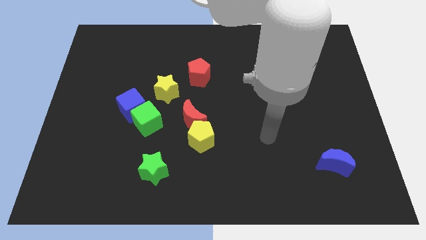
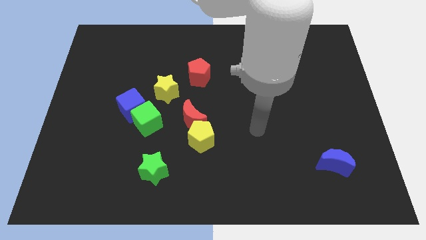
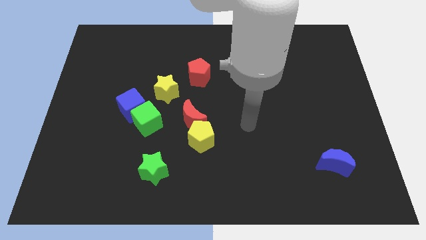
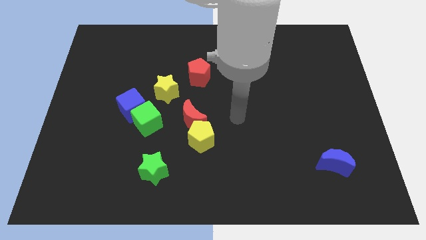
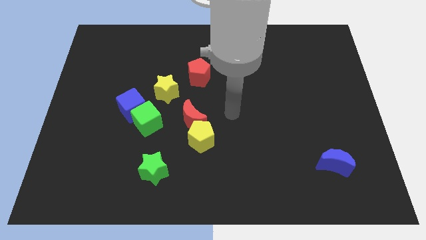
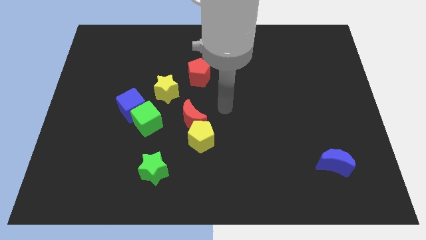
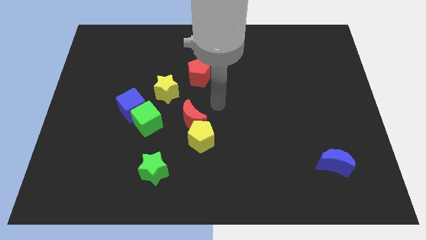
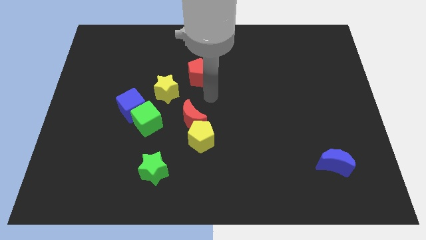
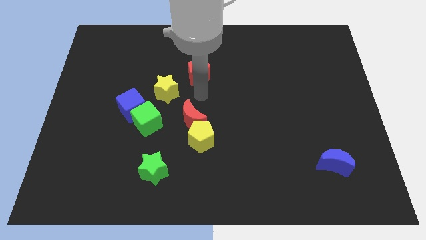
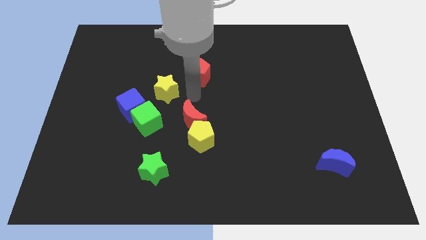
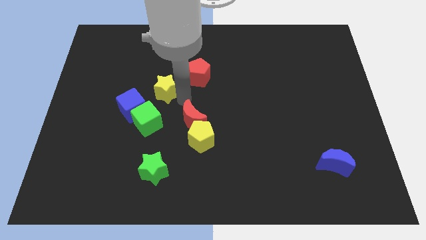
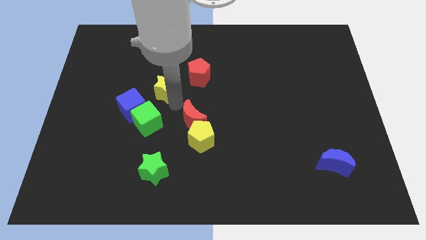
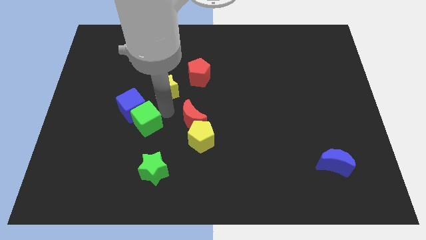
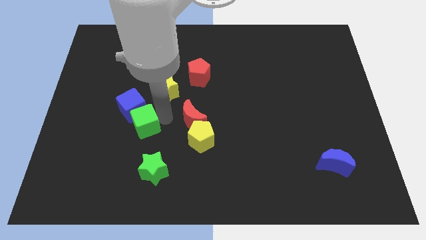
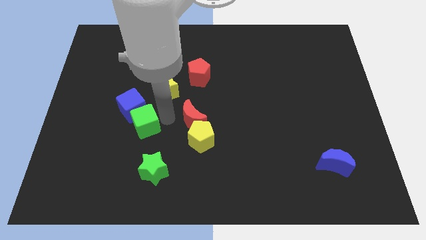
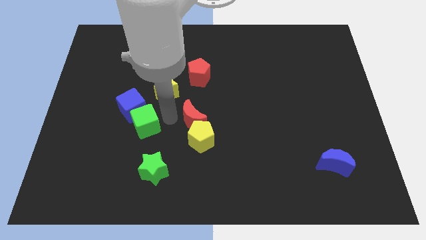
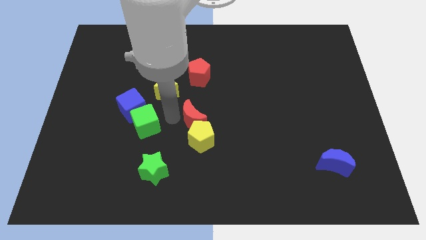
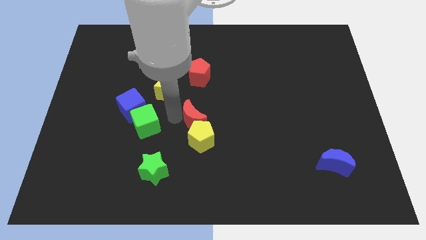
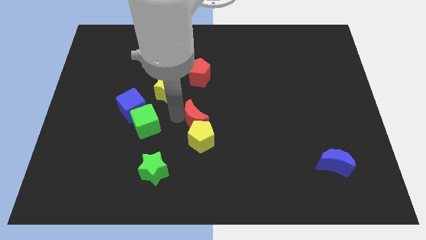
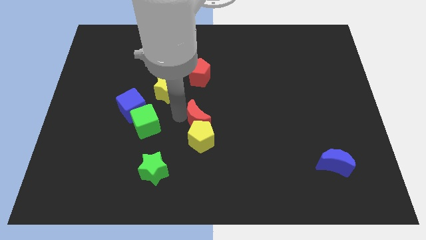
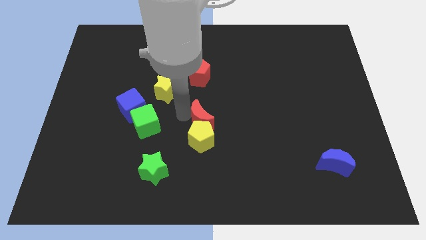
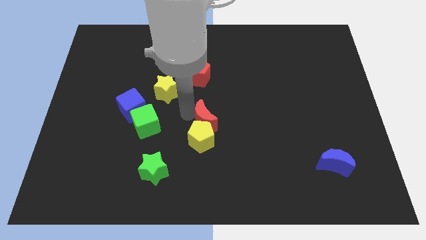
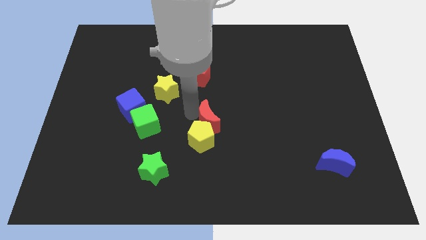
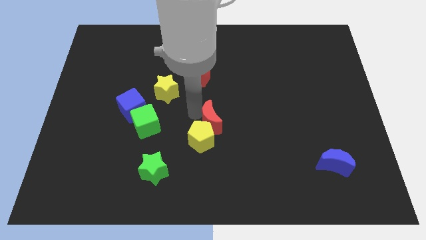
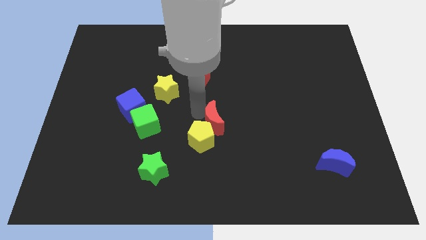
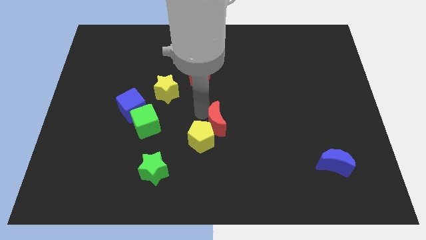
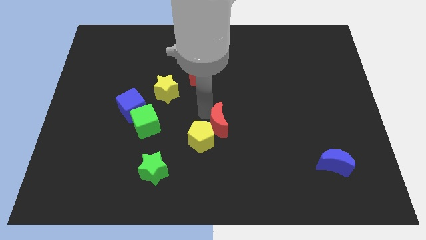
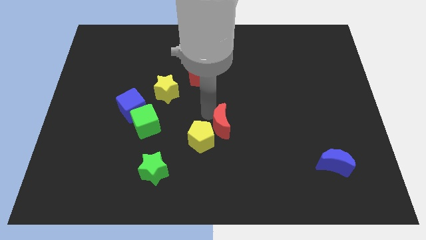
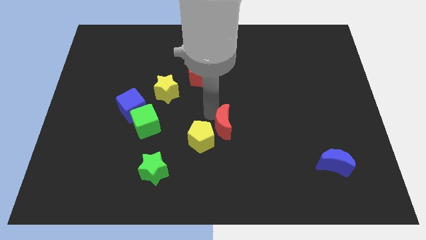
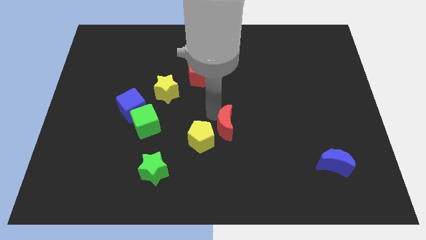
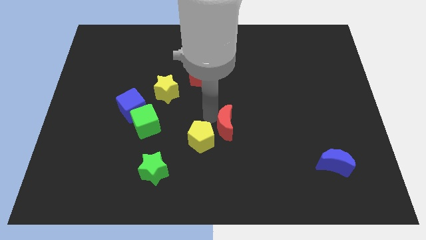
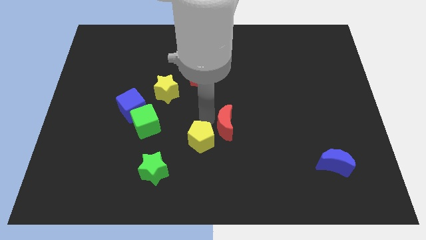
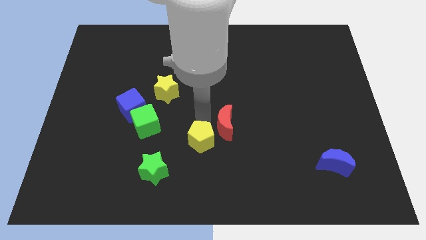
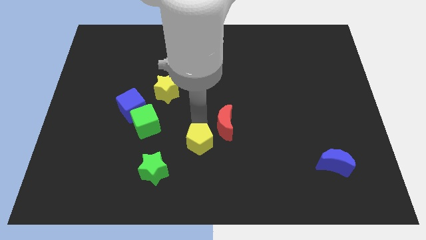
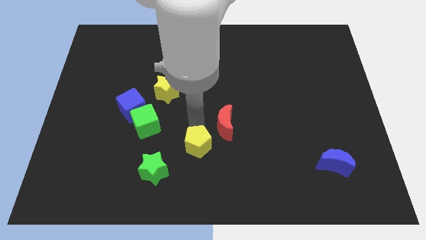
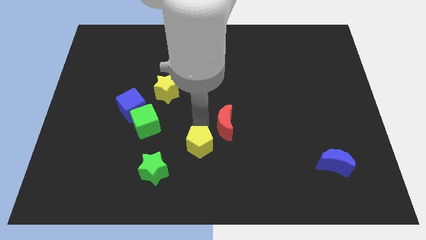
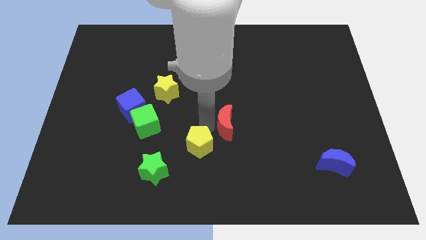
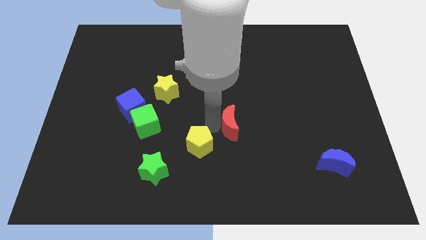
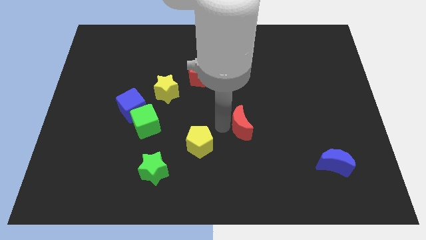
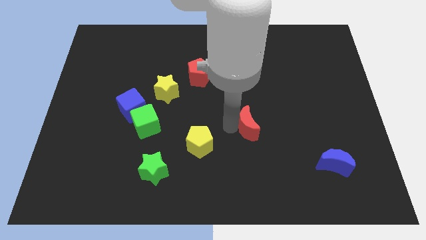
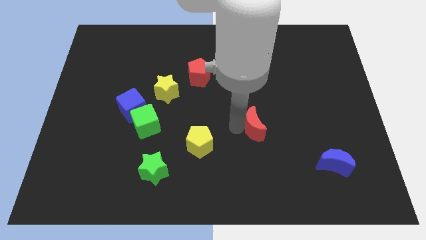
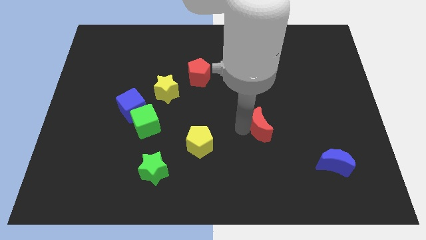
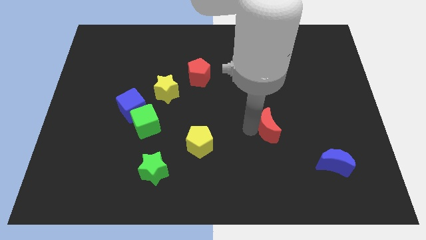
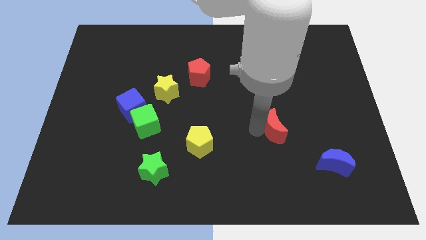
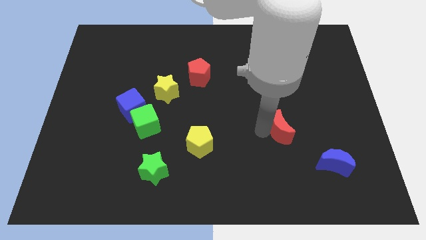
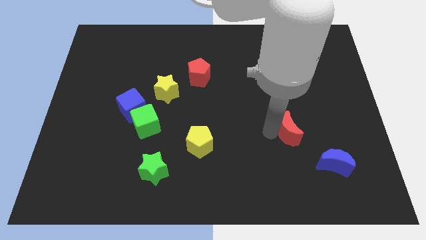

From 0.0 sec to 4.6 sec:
push the red moon to the right

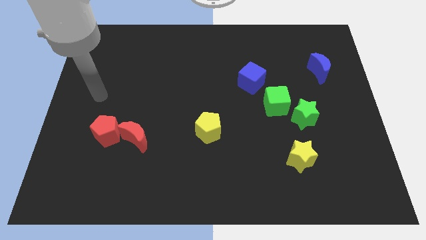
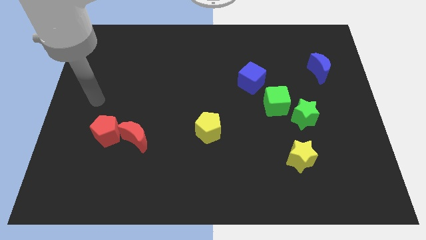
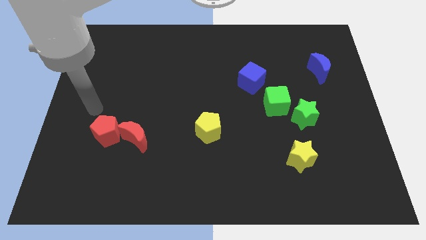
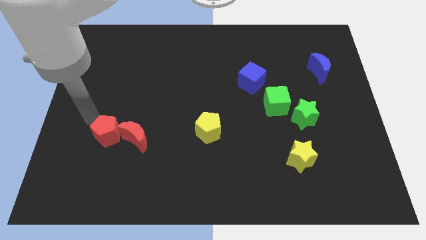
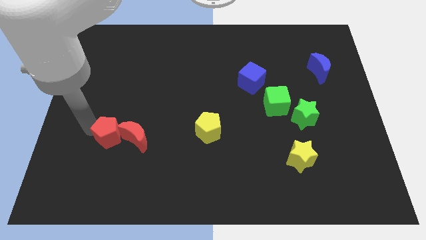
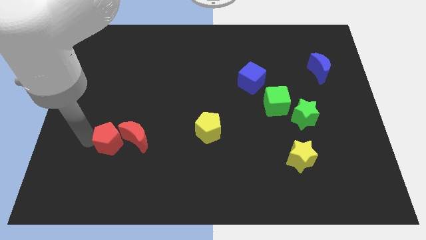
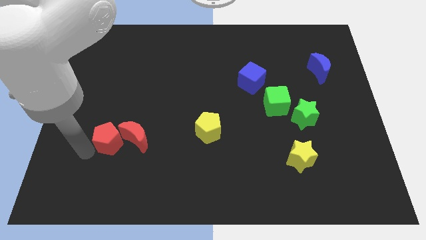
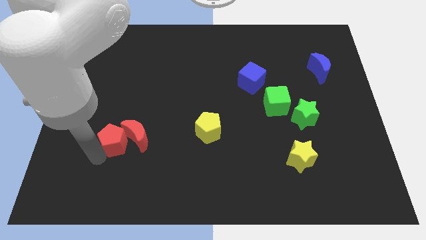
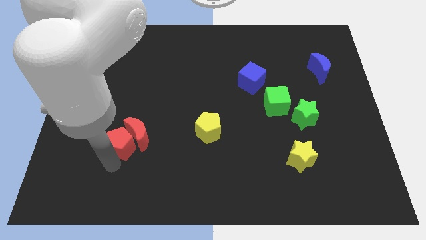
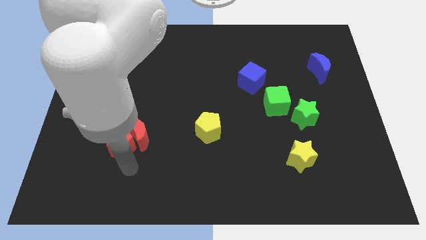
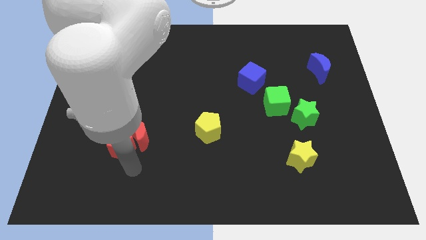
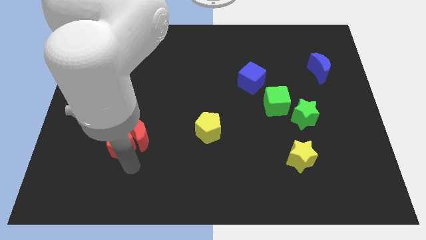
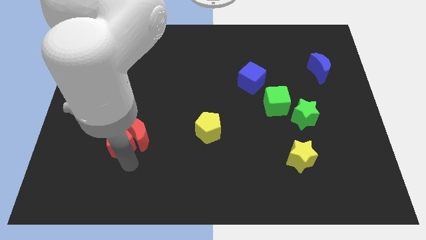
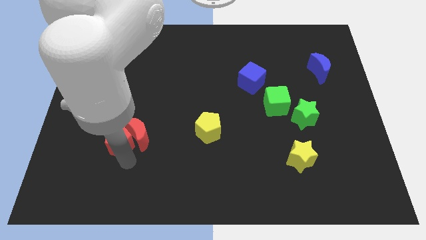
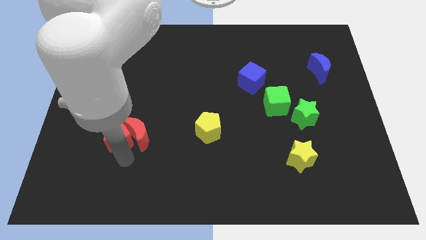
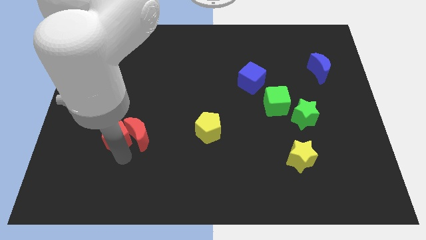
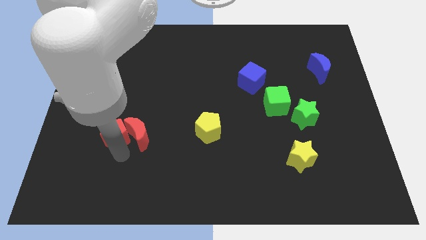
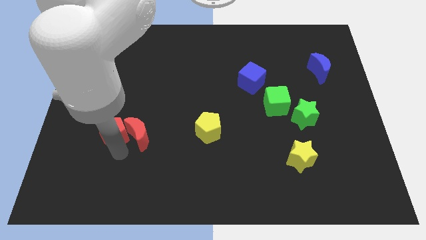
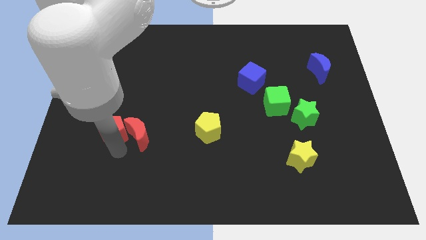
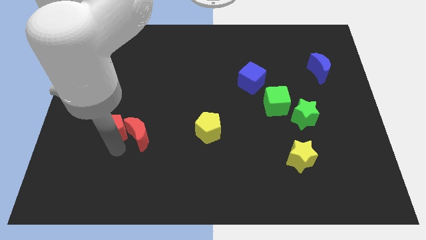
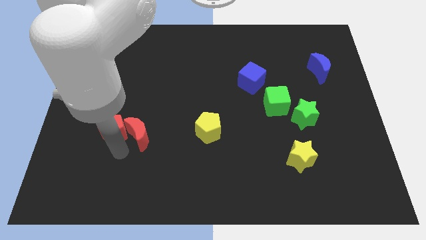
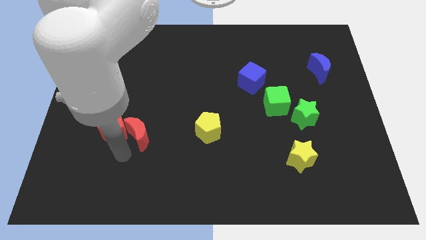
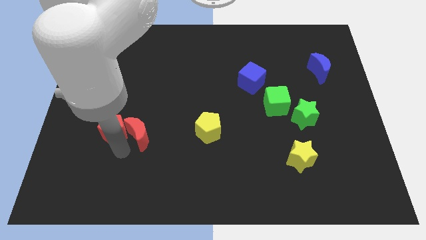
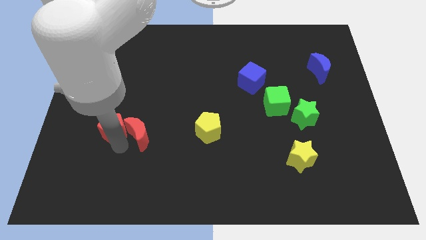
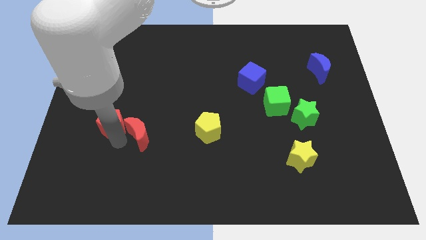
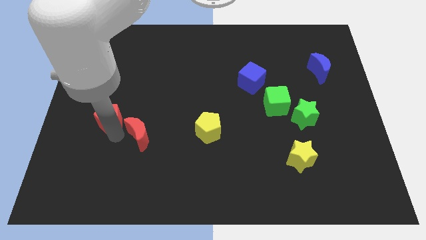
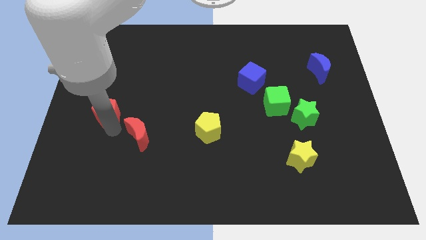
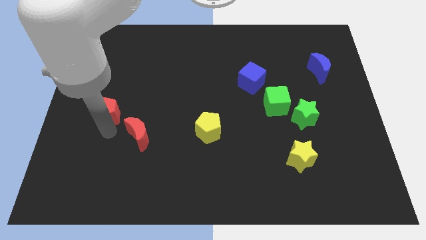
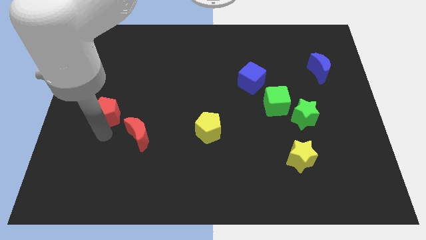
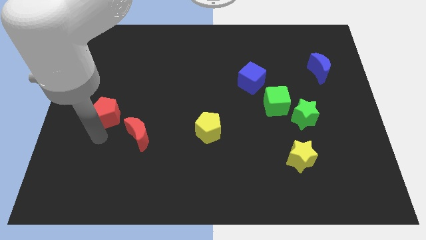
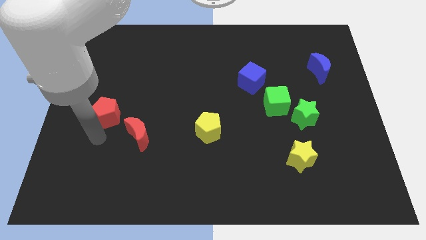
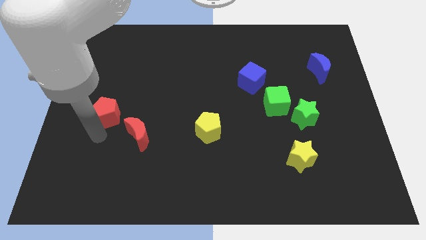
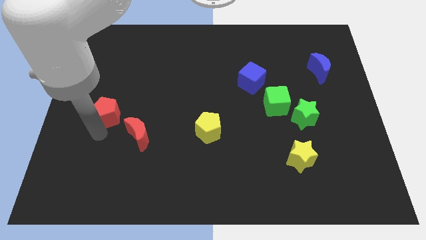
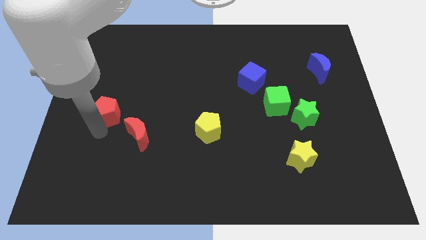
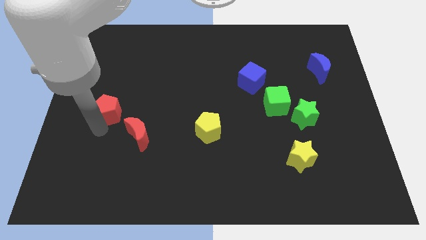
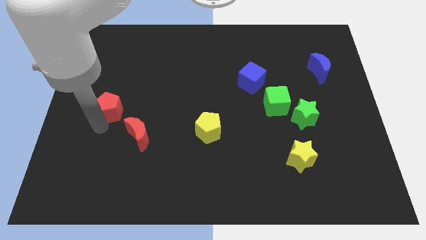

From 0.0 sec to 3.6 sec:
slide the red pentagon a little up
